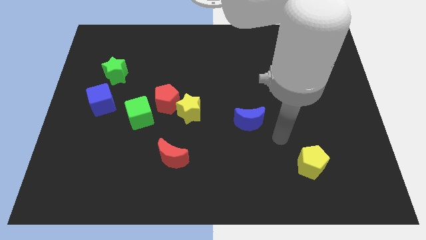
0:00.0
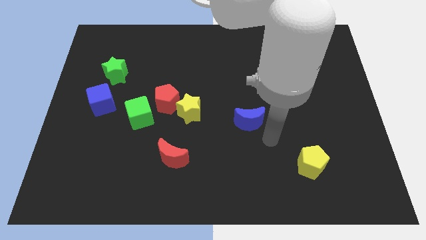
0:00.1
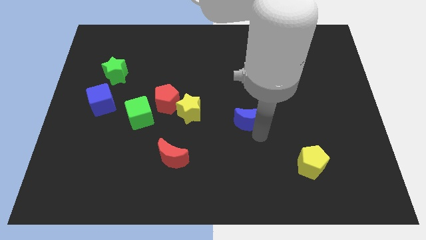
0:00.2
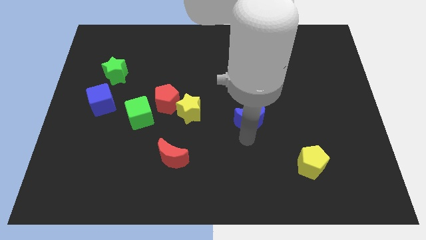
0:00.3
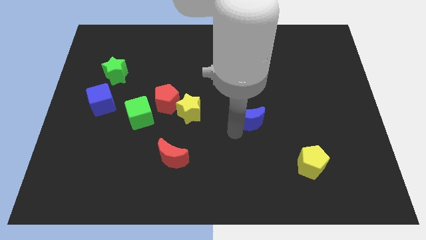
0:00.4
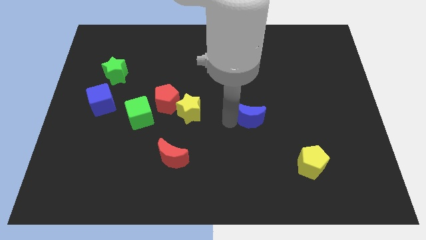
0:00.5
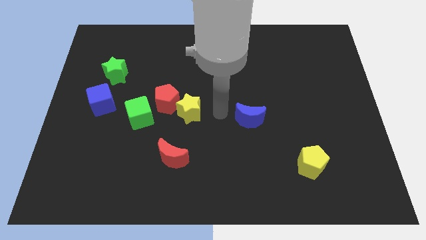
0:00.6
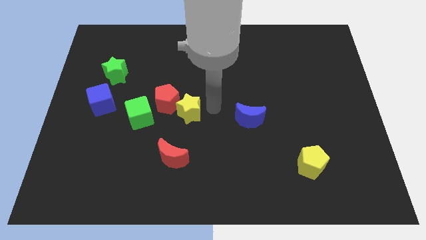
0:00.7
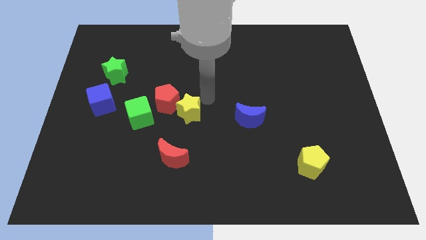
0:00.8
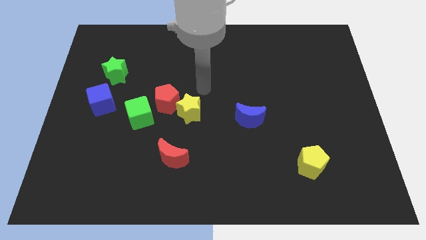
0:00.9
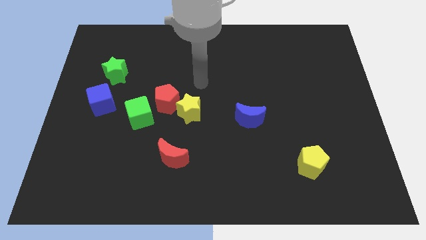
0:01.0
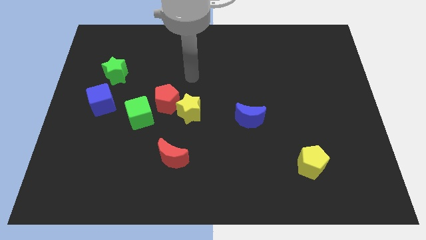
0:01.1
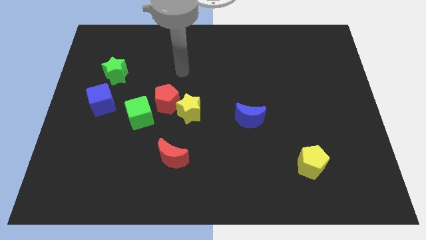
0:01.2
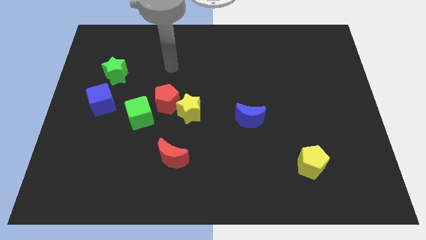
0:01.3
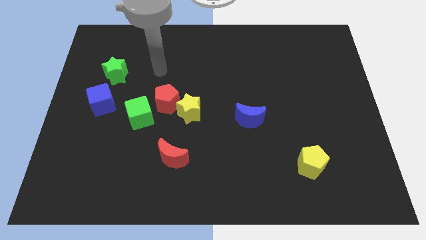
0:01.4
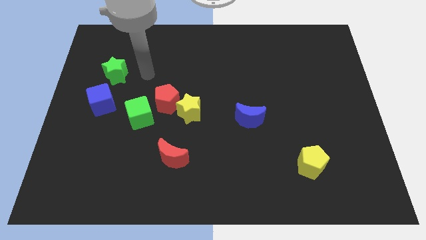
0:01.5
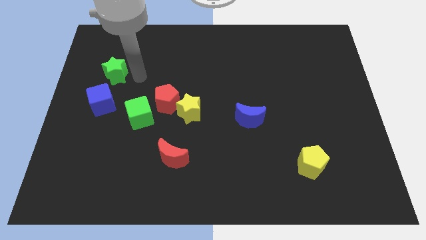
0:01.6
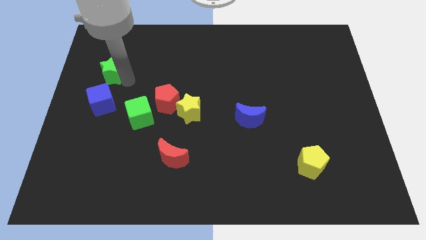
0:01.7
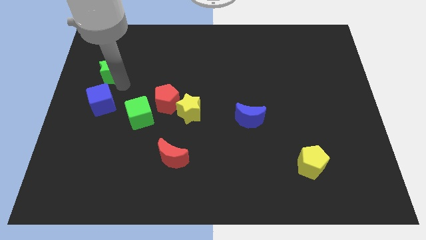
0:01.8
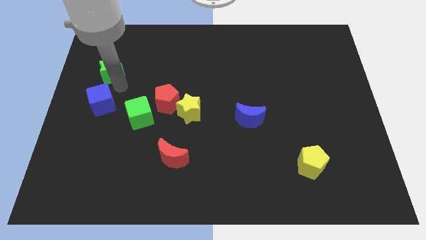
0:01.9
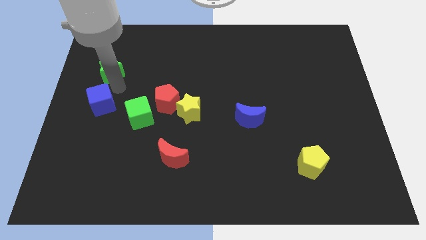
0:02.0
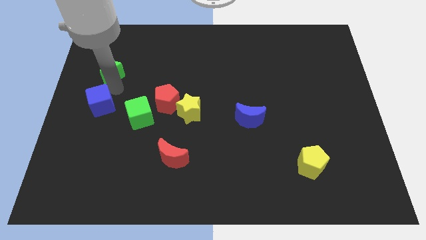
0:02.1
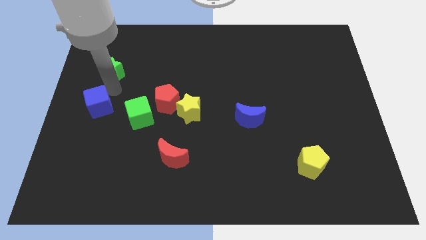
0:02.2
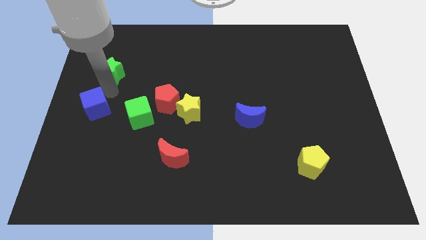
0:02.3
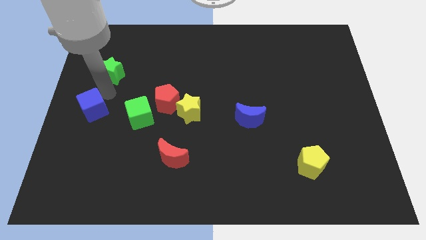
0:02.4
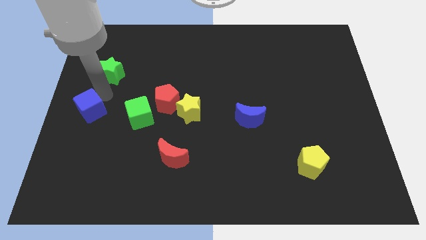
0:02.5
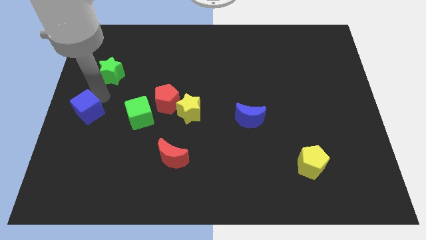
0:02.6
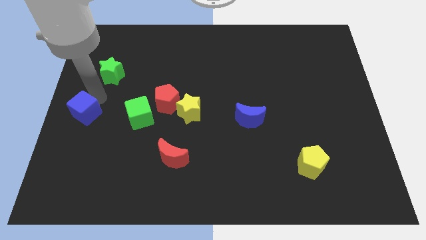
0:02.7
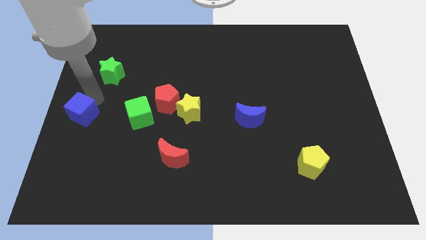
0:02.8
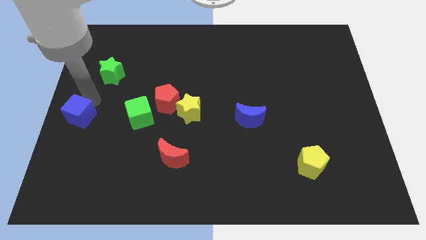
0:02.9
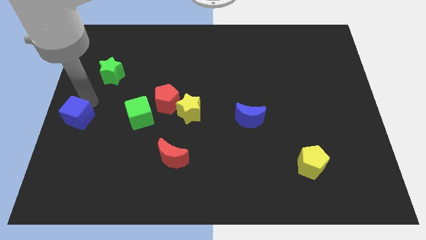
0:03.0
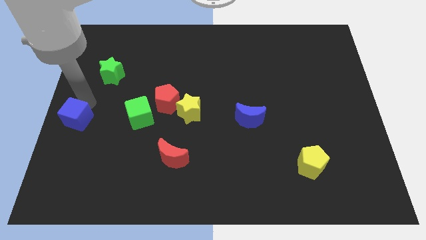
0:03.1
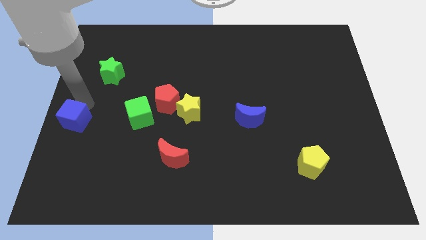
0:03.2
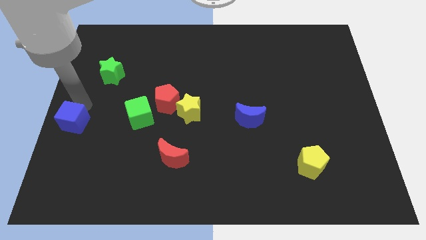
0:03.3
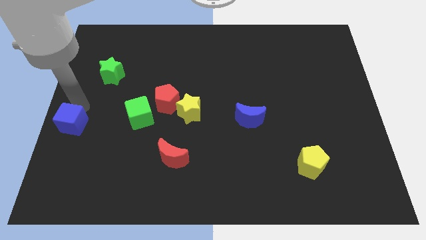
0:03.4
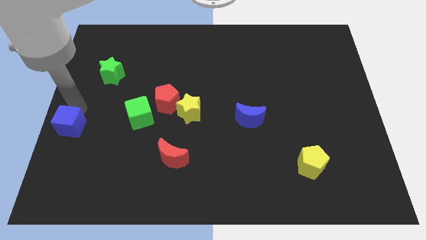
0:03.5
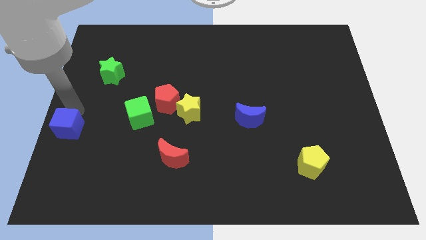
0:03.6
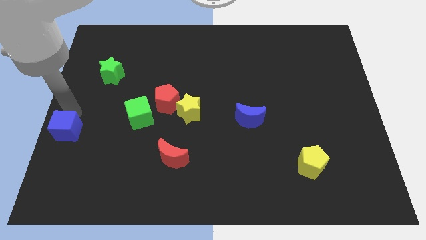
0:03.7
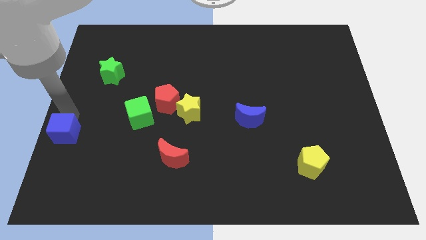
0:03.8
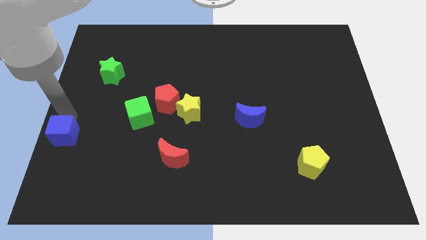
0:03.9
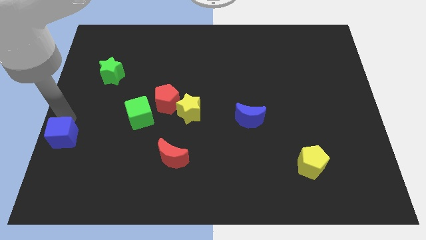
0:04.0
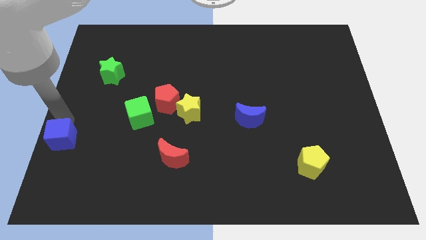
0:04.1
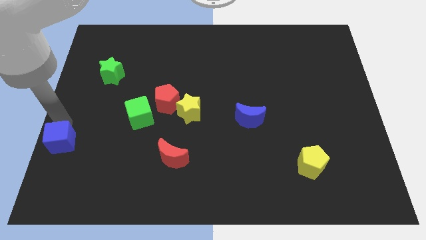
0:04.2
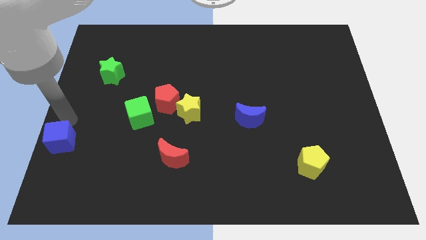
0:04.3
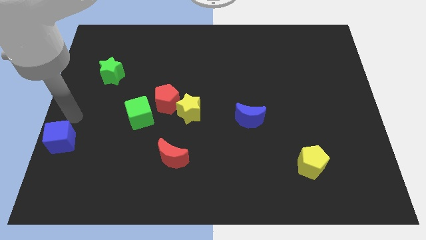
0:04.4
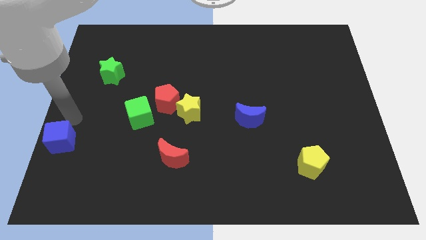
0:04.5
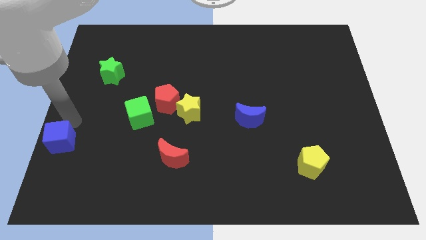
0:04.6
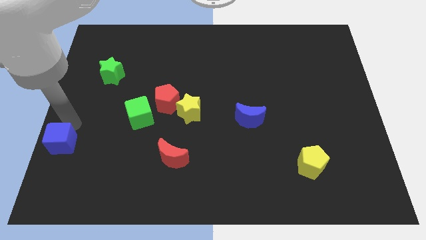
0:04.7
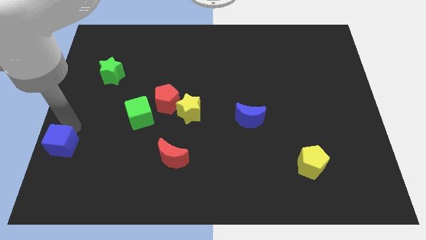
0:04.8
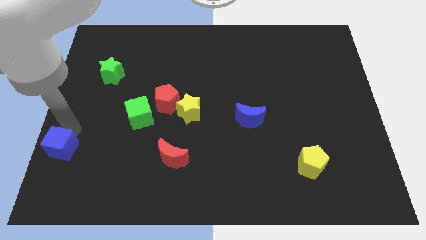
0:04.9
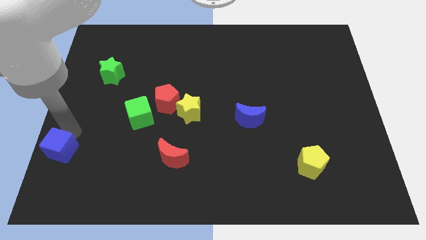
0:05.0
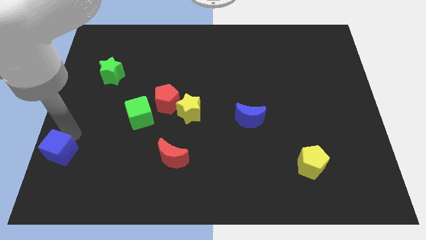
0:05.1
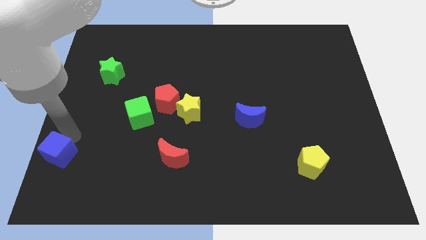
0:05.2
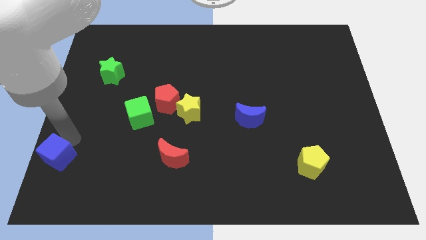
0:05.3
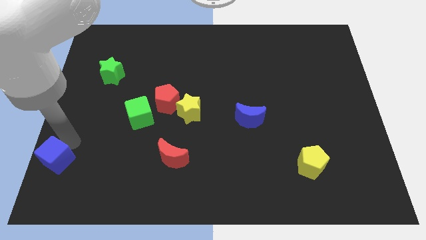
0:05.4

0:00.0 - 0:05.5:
push the blue cube to the bottom left corner

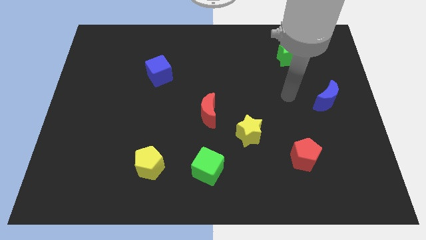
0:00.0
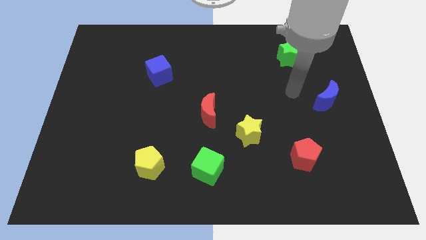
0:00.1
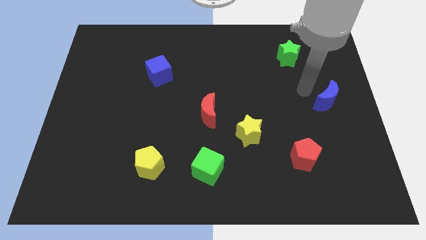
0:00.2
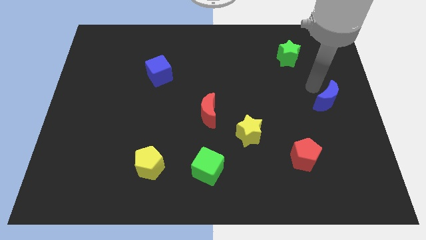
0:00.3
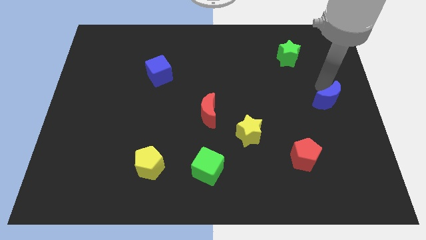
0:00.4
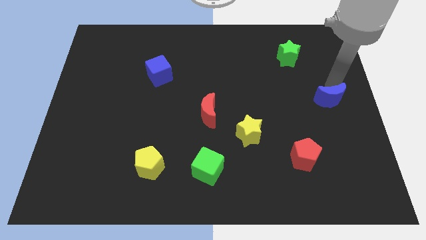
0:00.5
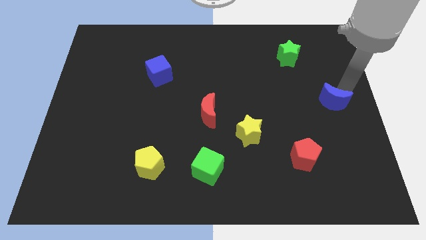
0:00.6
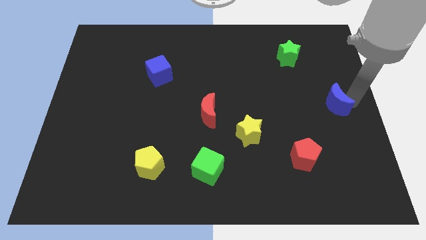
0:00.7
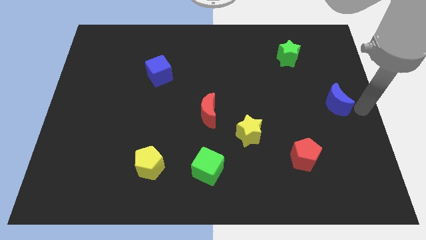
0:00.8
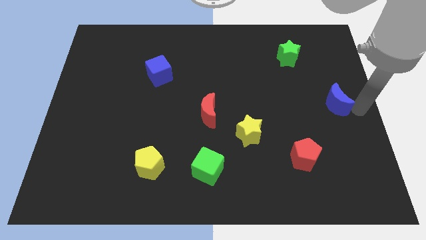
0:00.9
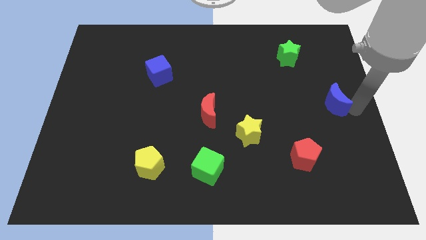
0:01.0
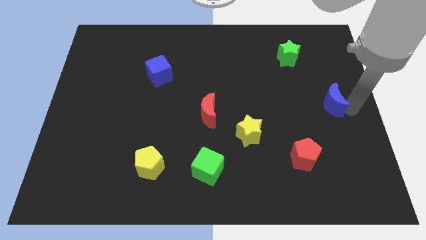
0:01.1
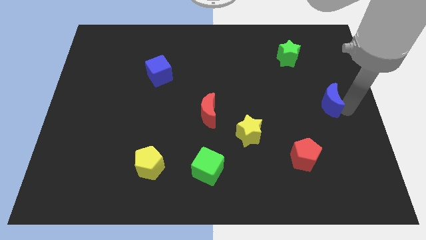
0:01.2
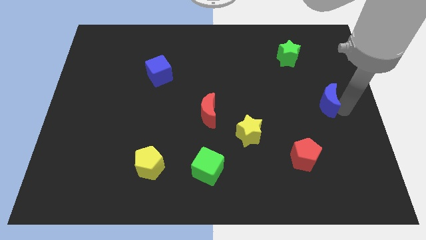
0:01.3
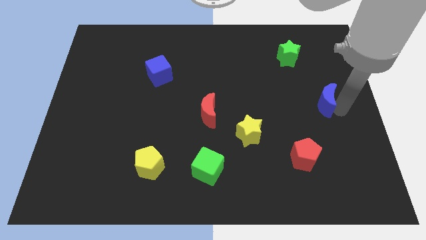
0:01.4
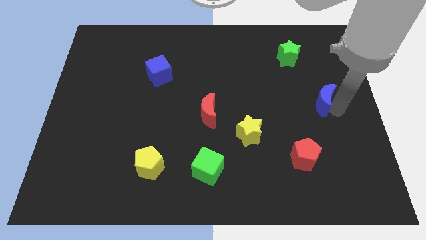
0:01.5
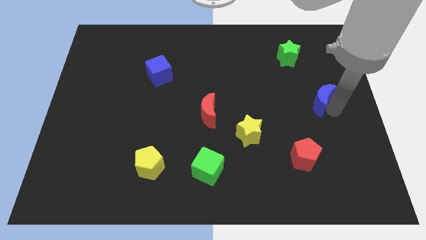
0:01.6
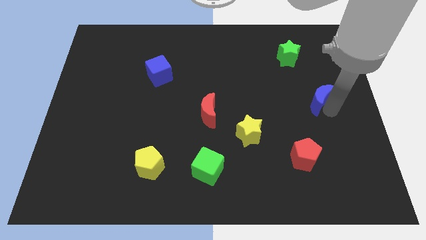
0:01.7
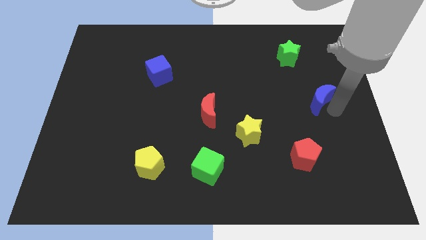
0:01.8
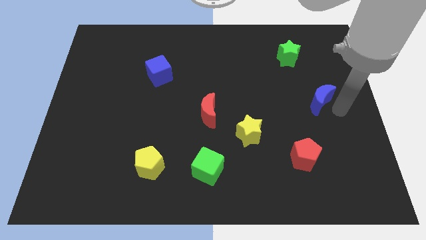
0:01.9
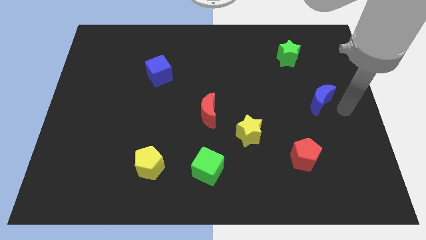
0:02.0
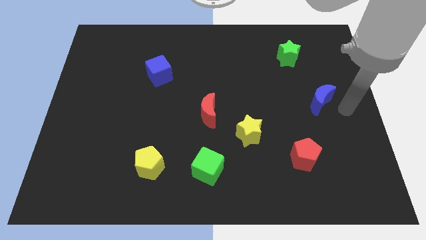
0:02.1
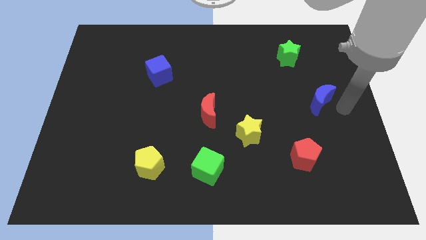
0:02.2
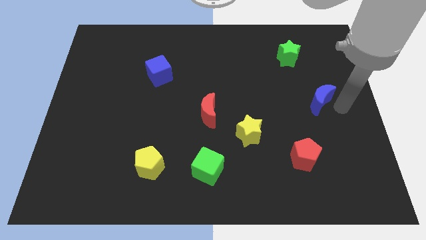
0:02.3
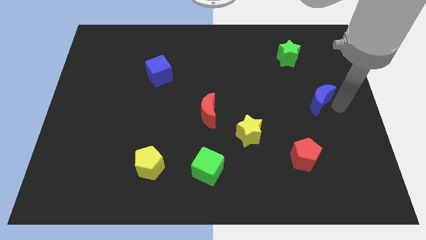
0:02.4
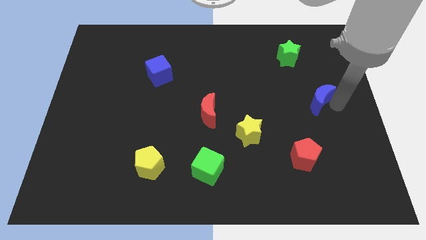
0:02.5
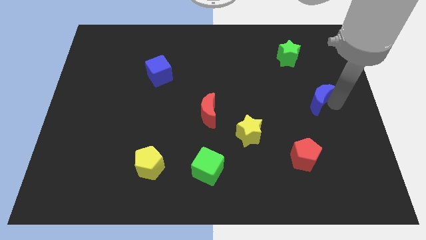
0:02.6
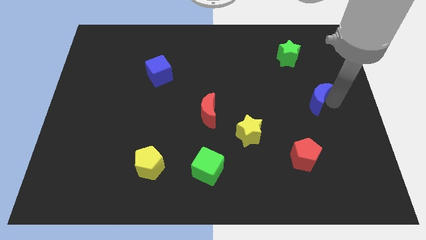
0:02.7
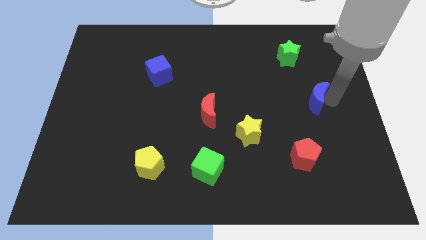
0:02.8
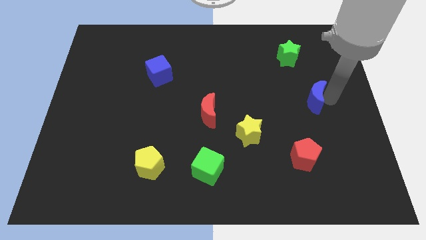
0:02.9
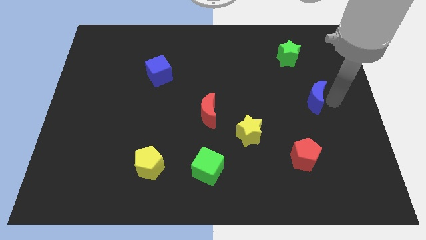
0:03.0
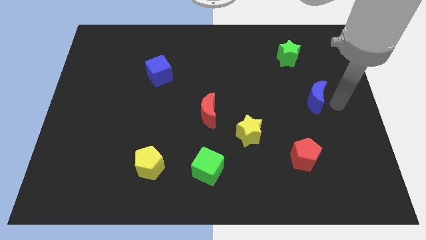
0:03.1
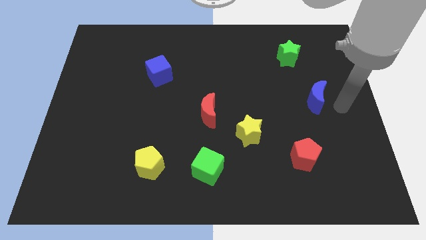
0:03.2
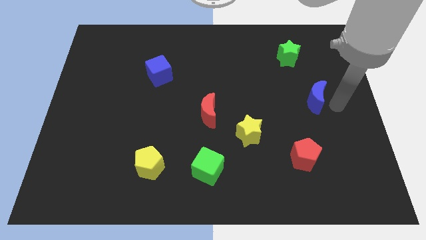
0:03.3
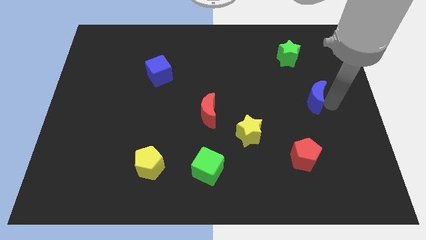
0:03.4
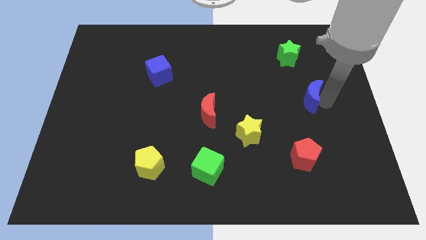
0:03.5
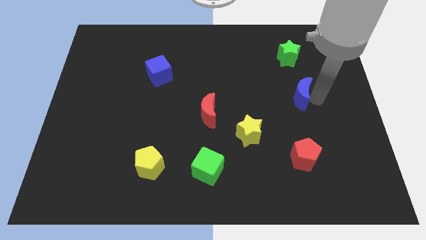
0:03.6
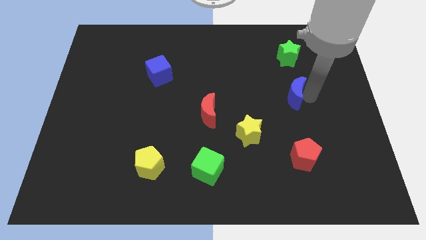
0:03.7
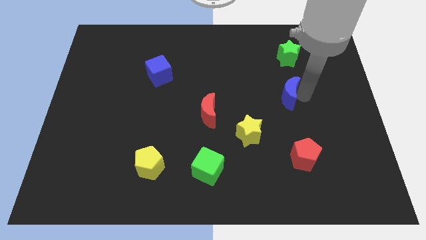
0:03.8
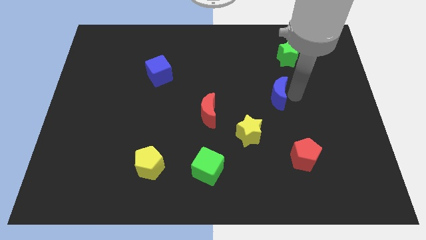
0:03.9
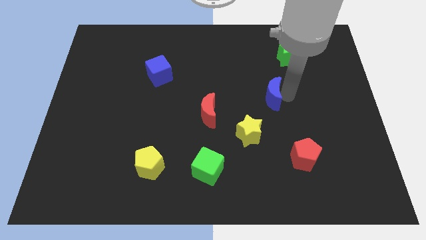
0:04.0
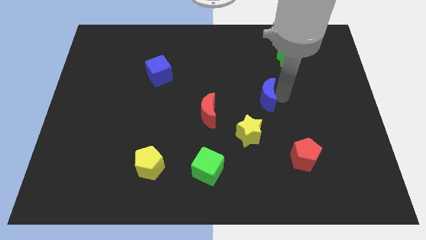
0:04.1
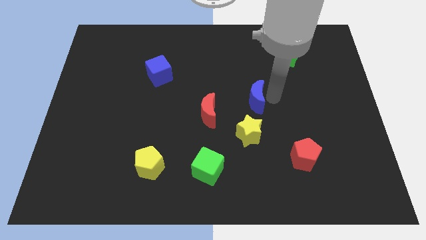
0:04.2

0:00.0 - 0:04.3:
put the blue moon to the middle
